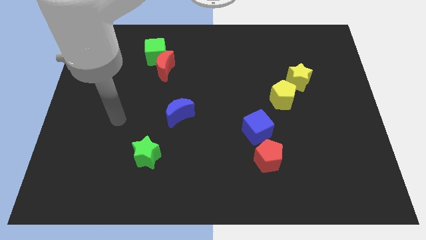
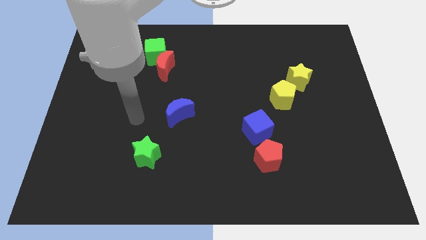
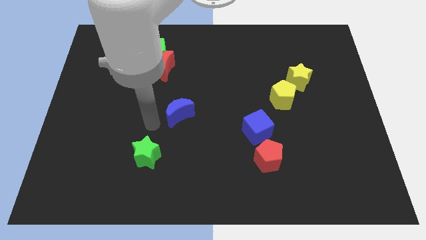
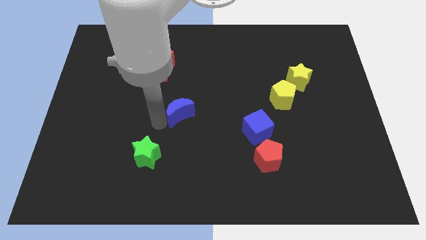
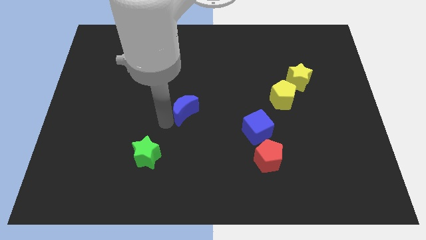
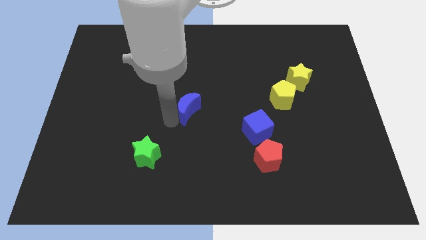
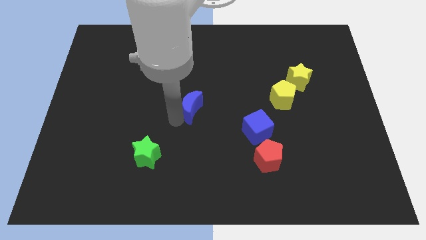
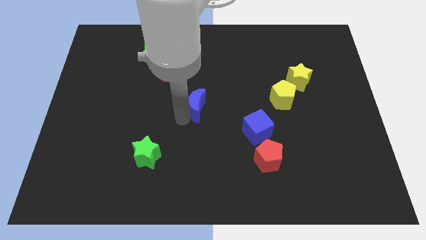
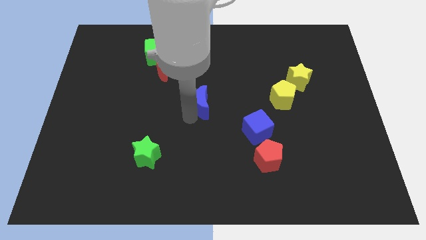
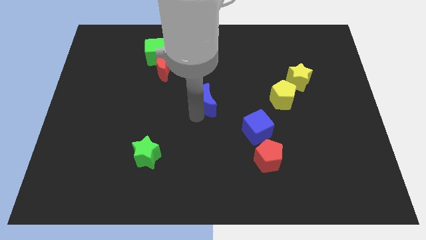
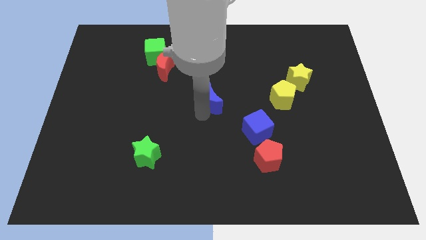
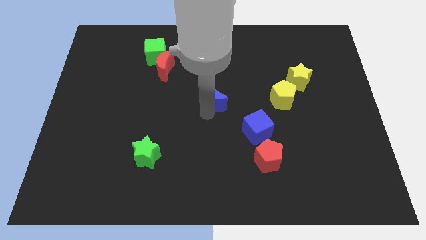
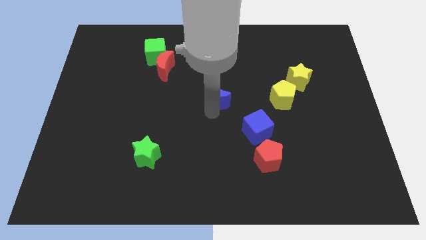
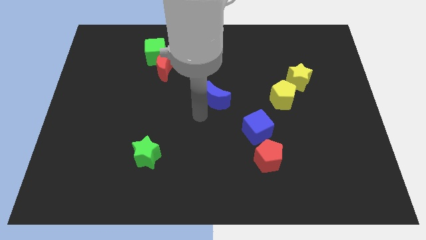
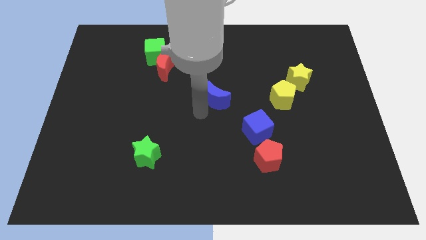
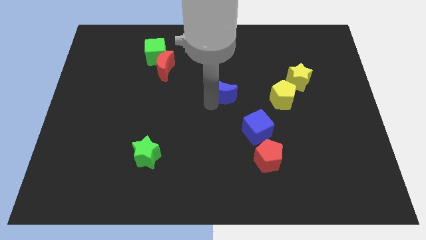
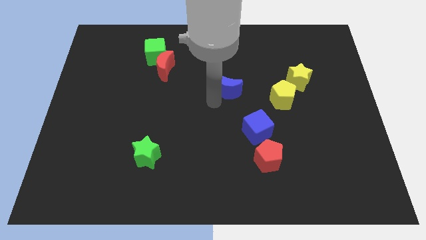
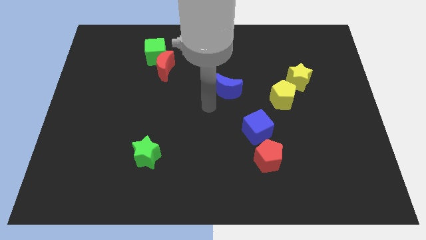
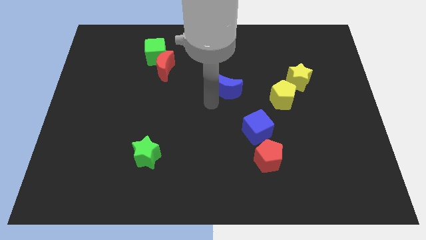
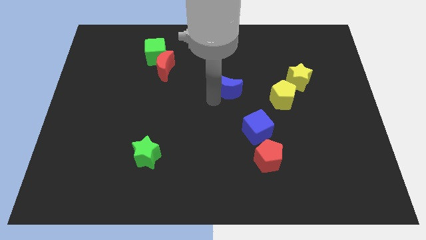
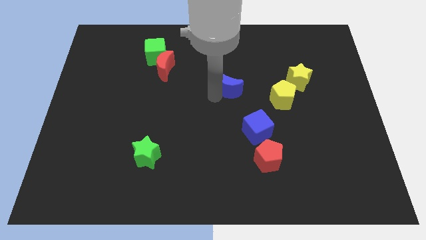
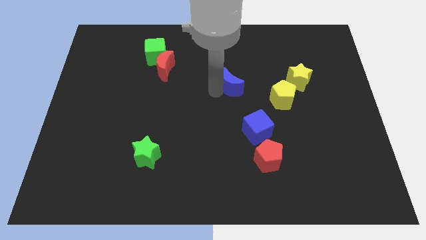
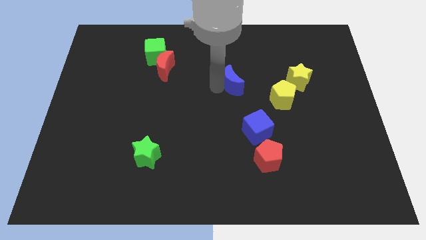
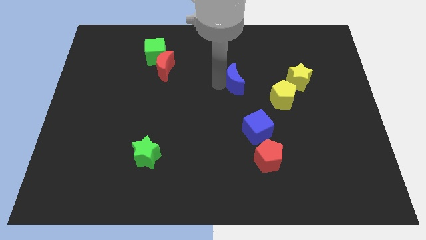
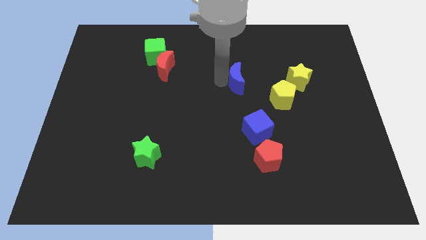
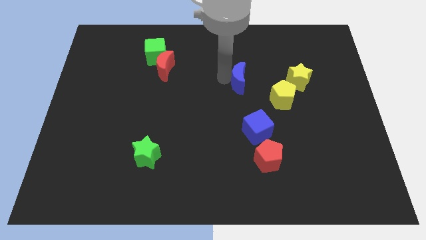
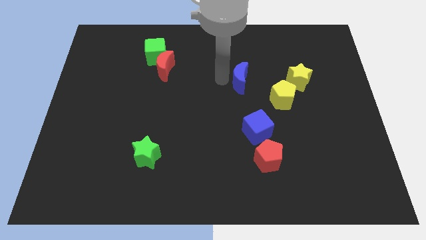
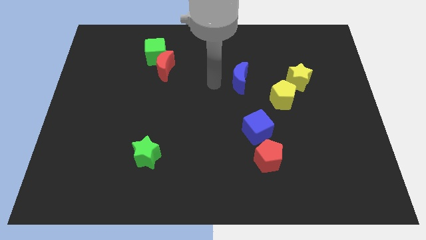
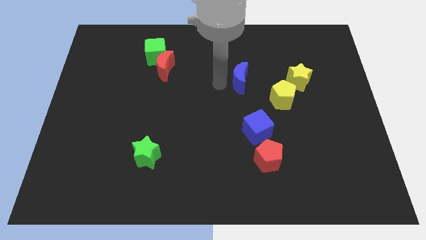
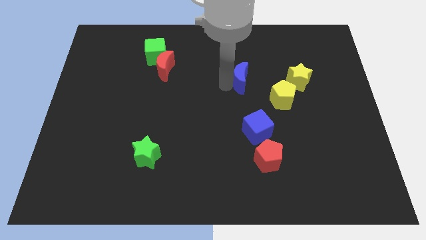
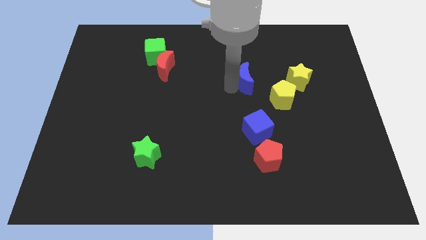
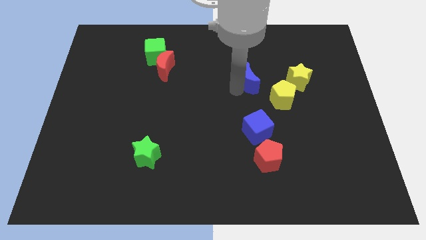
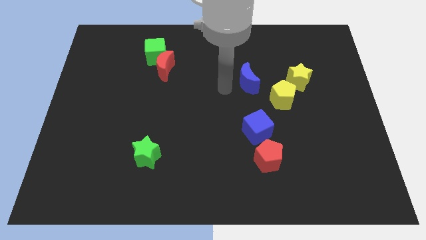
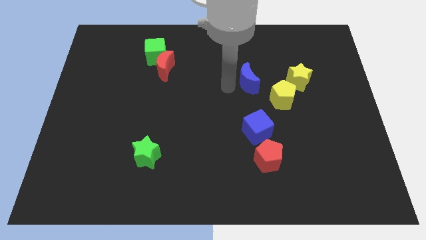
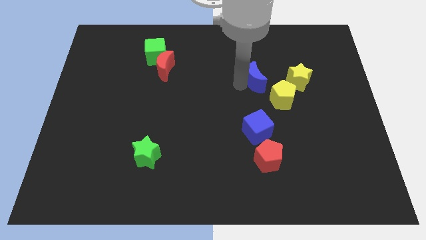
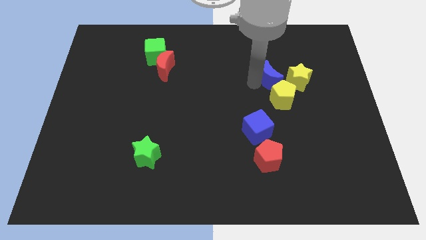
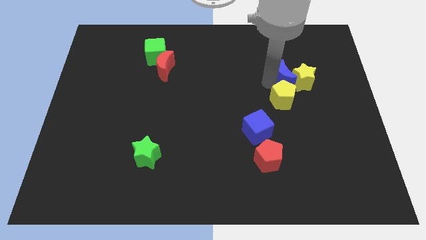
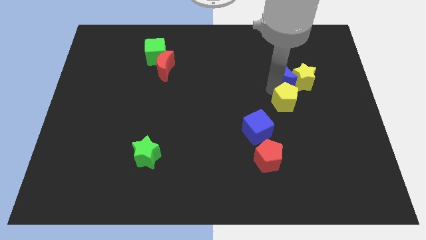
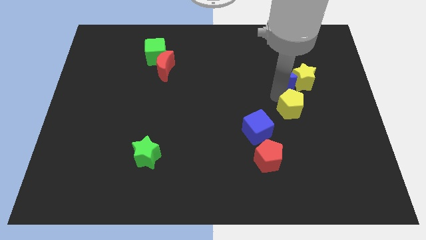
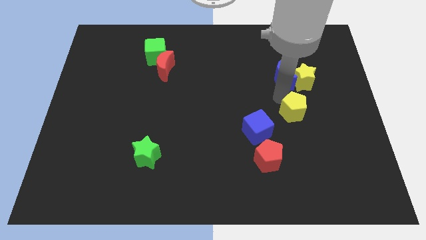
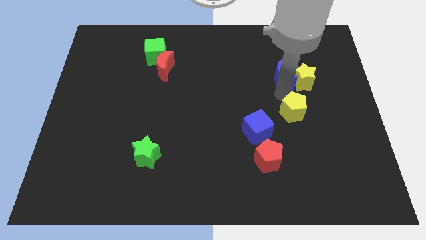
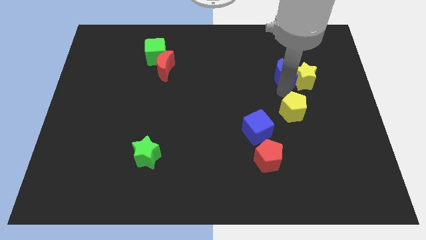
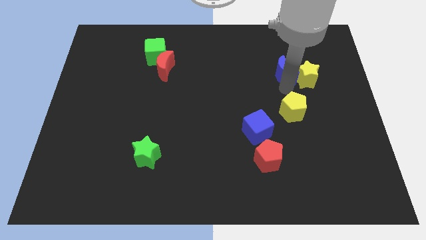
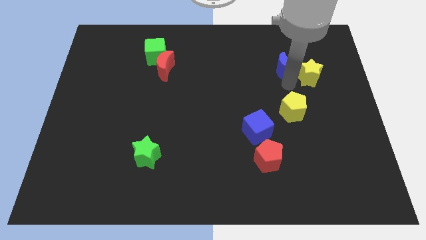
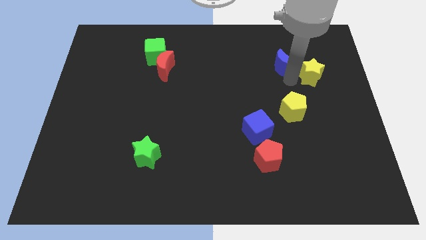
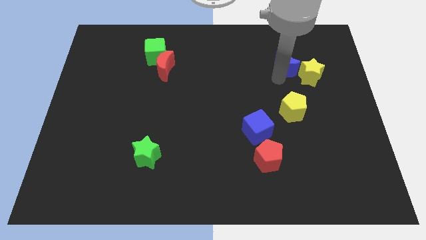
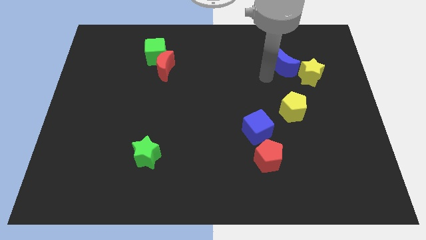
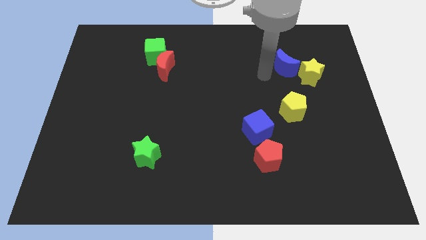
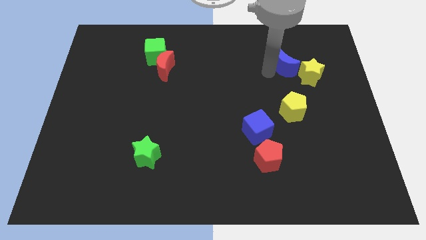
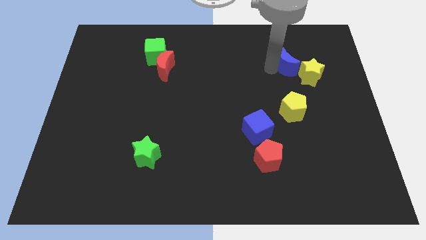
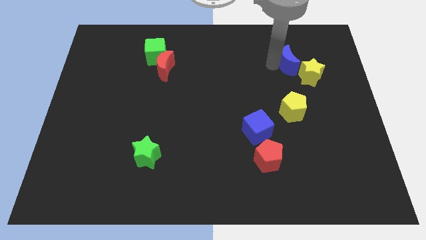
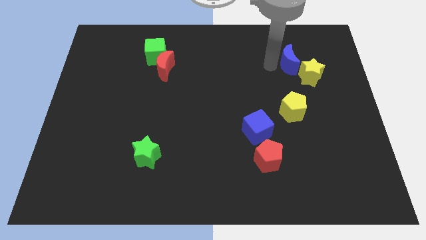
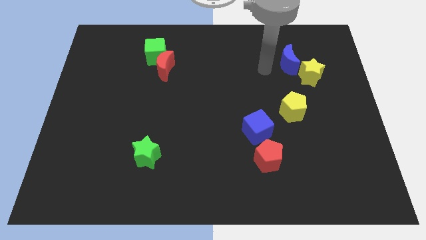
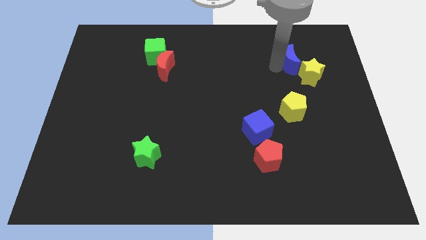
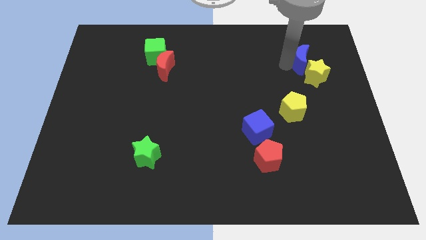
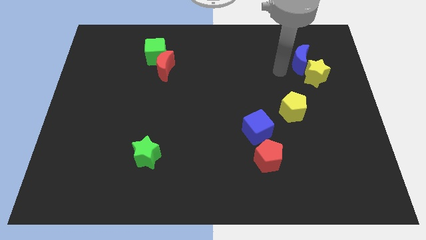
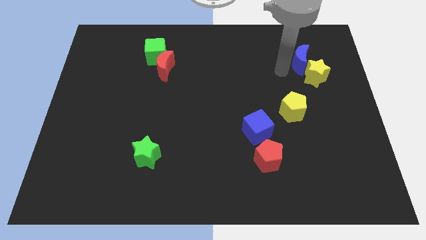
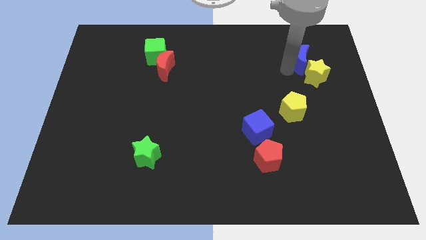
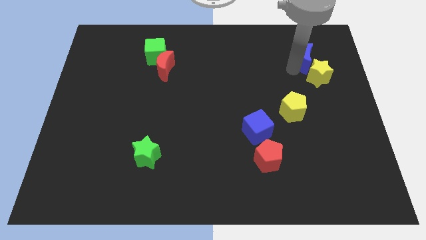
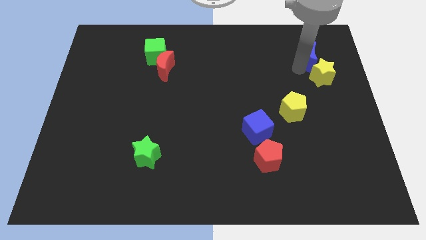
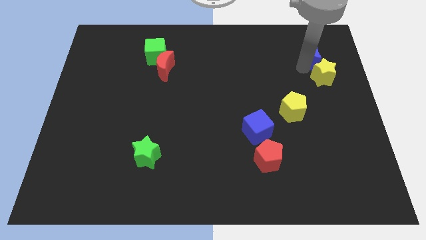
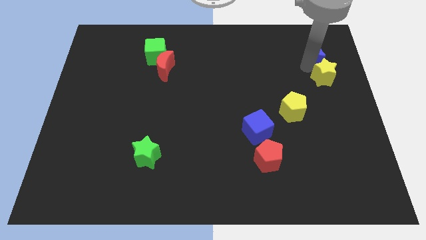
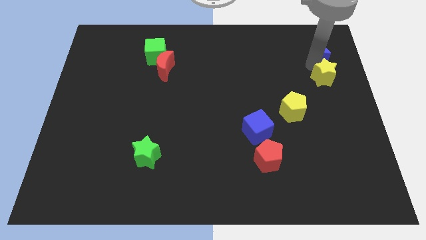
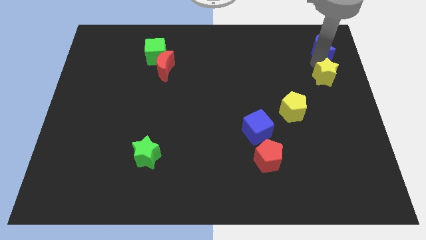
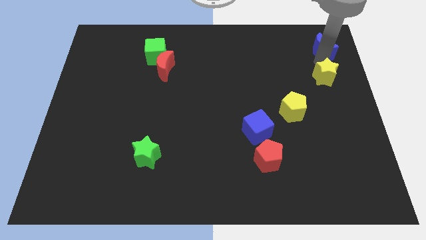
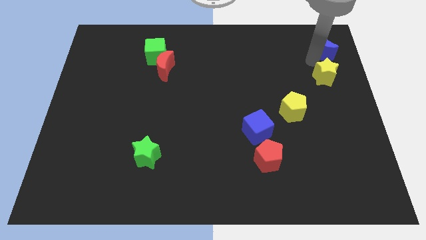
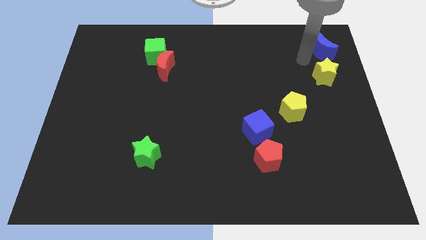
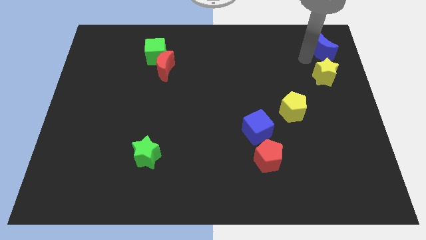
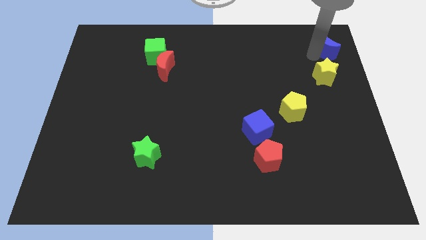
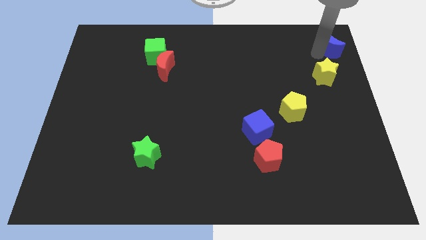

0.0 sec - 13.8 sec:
slide the blue moon to the top right of the board

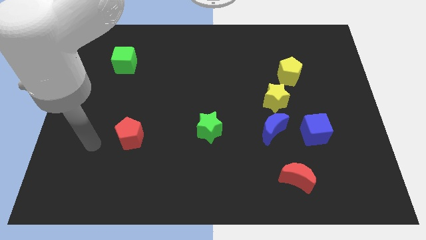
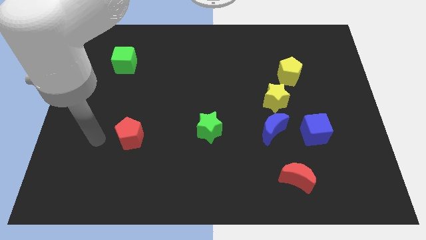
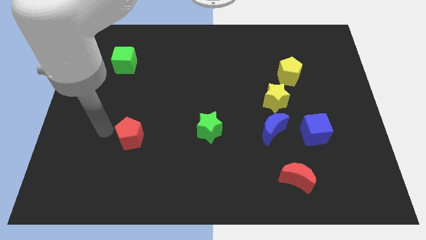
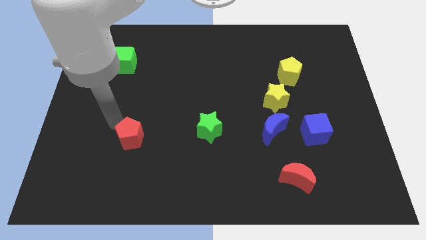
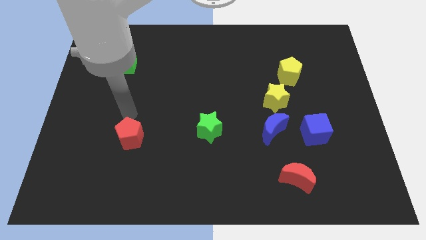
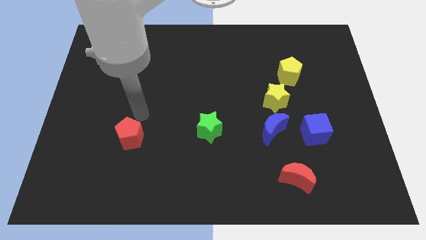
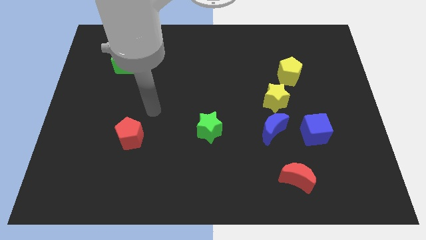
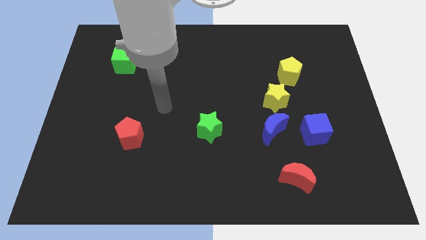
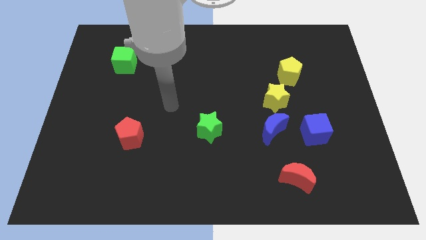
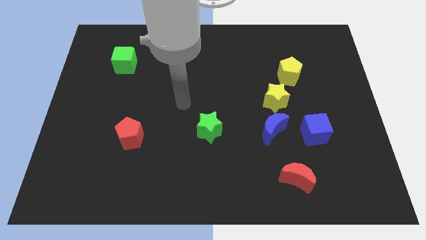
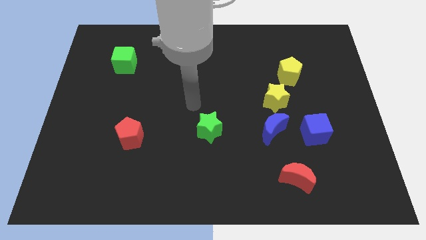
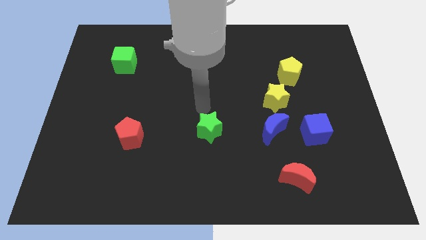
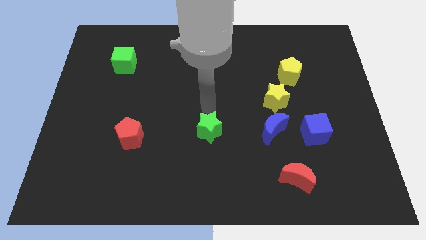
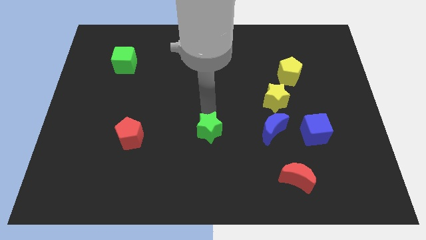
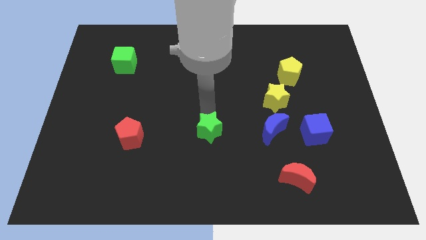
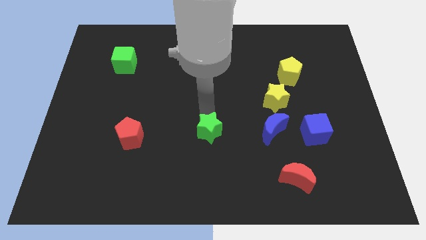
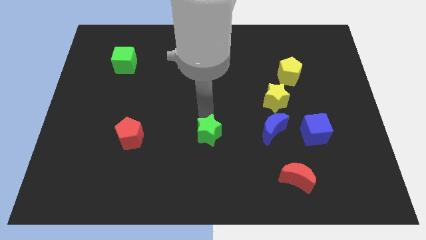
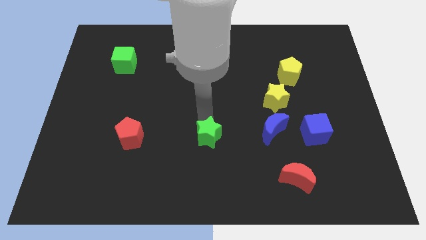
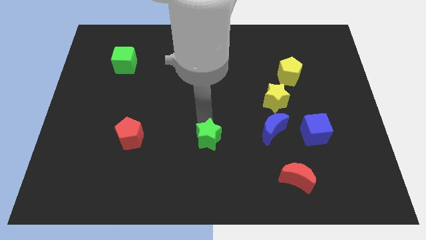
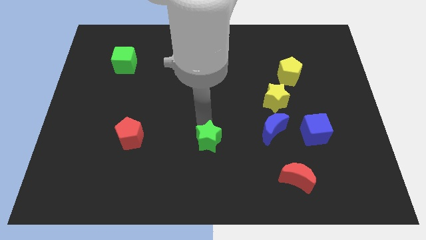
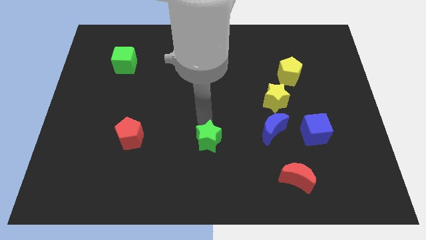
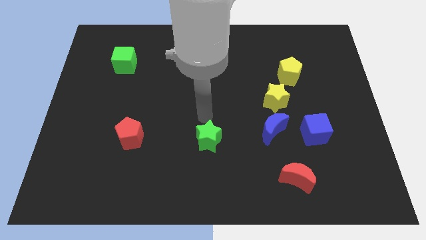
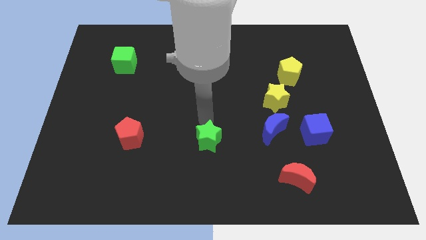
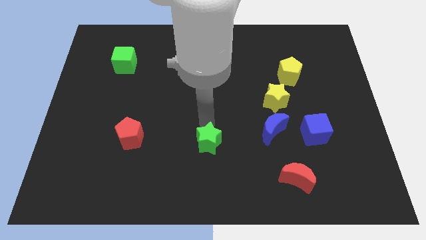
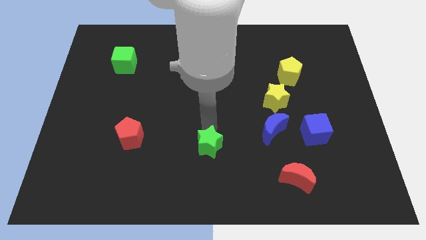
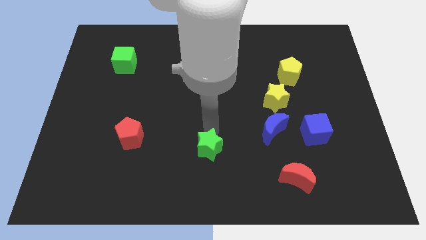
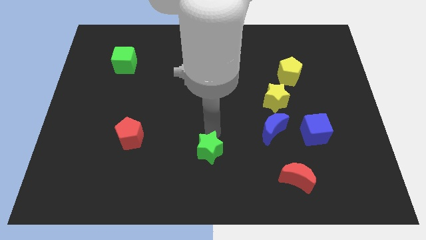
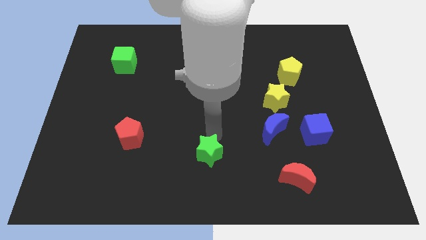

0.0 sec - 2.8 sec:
put the green star to the bottom side
